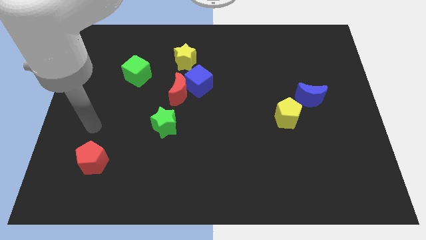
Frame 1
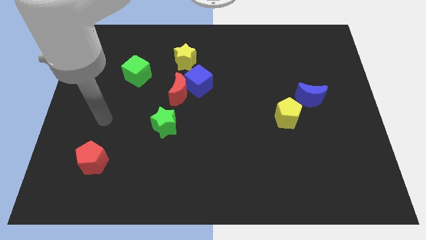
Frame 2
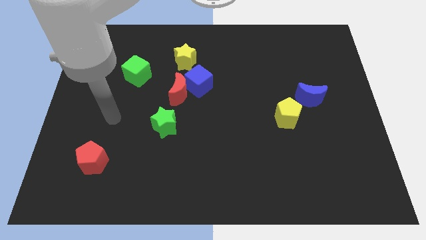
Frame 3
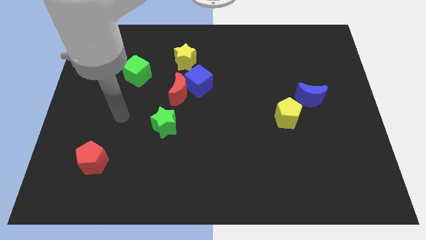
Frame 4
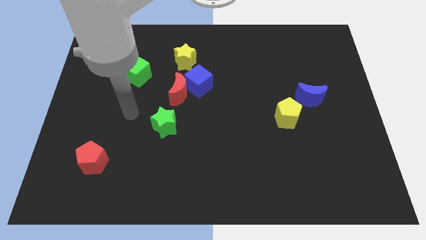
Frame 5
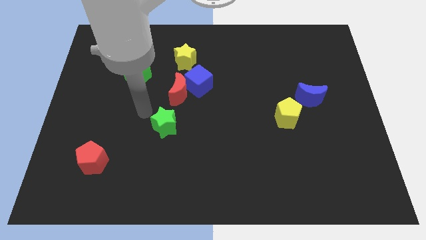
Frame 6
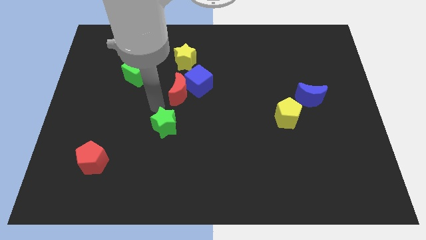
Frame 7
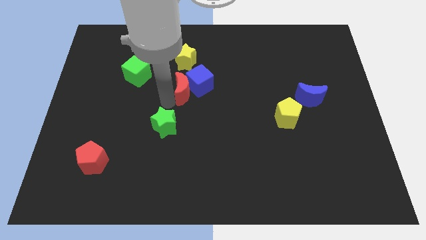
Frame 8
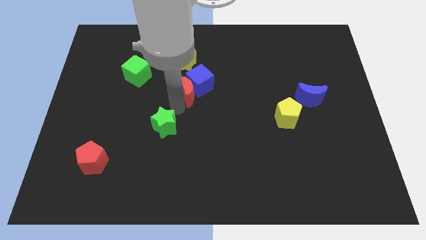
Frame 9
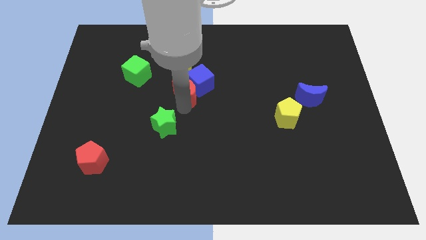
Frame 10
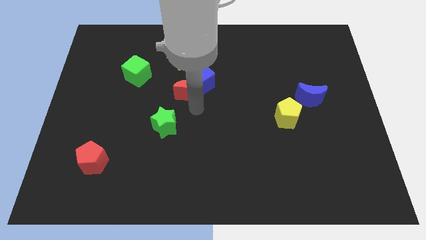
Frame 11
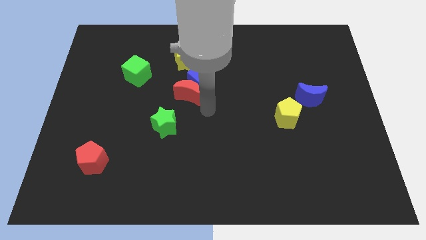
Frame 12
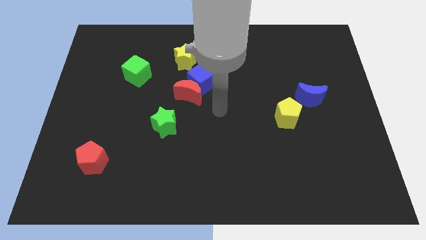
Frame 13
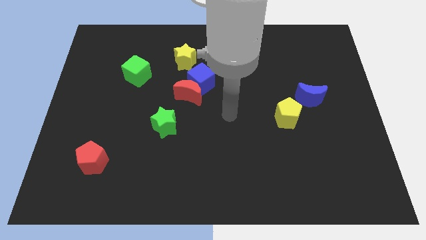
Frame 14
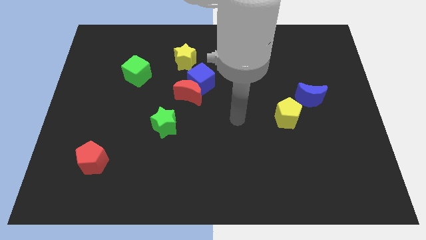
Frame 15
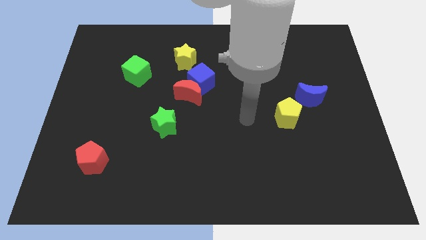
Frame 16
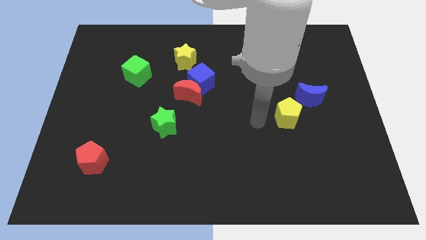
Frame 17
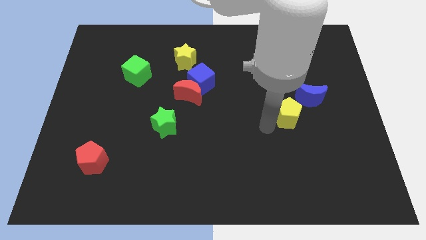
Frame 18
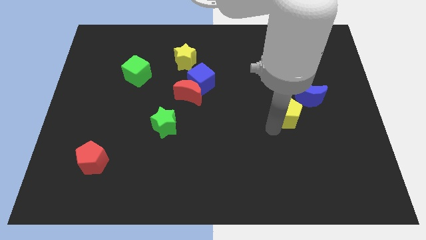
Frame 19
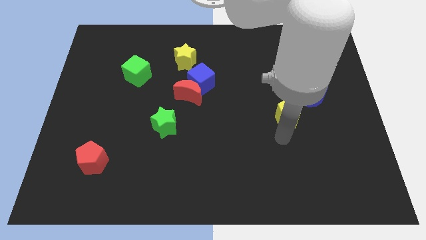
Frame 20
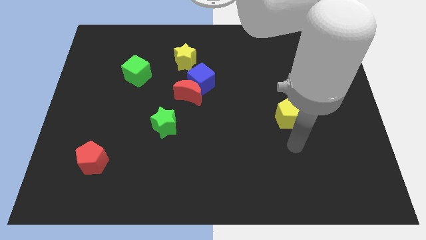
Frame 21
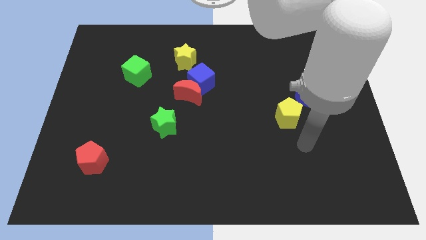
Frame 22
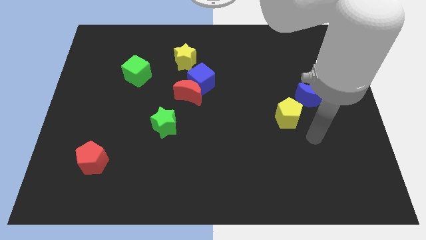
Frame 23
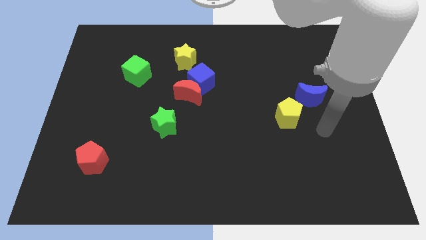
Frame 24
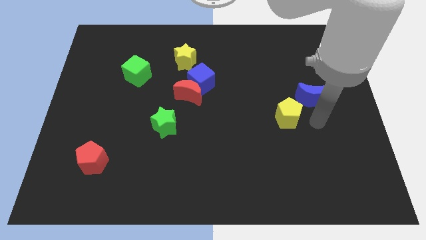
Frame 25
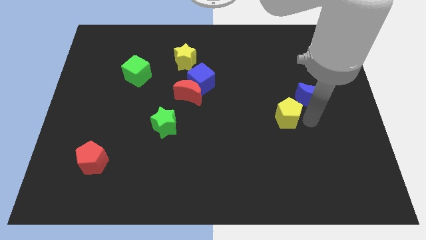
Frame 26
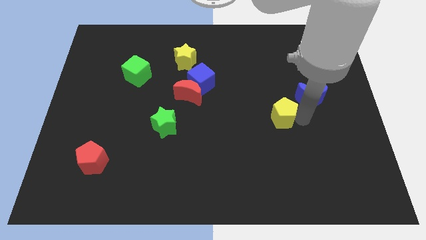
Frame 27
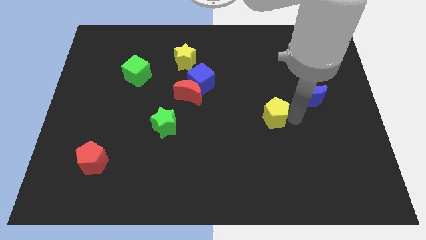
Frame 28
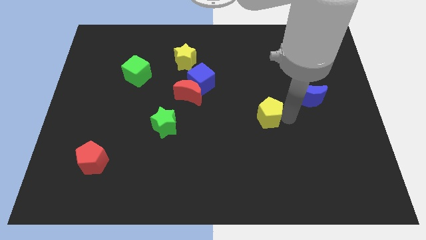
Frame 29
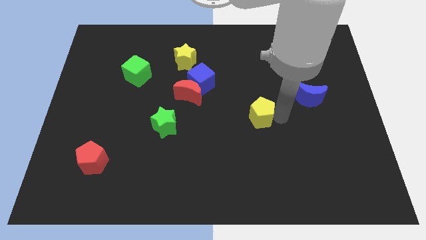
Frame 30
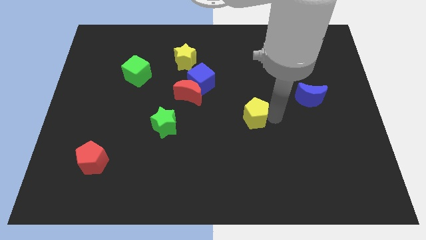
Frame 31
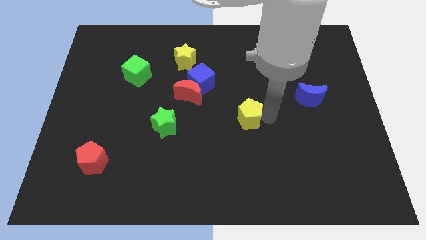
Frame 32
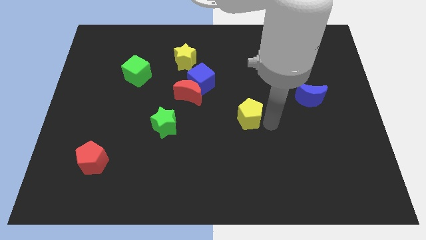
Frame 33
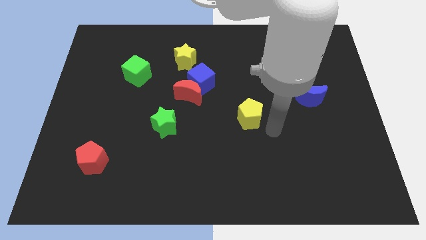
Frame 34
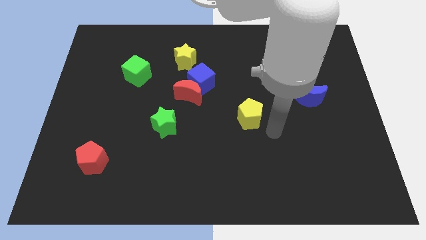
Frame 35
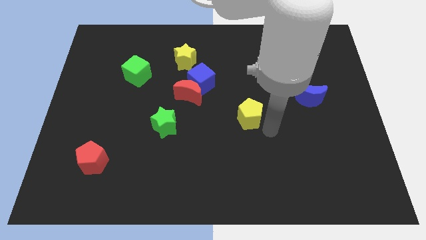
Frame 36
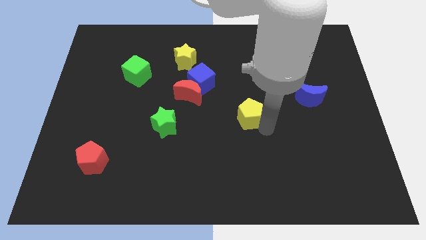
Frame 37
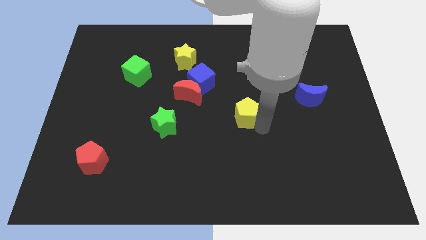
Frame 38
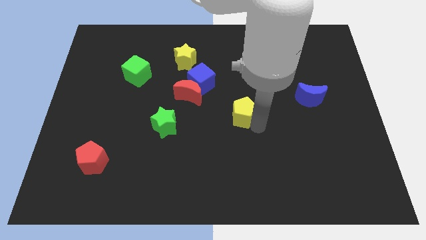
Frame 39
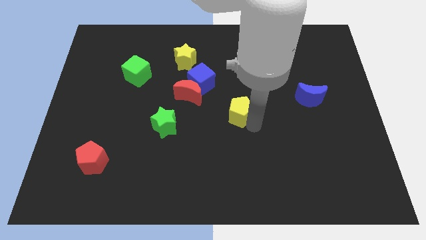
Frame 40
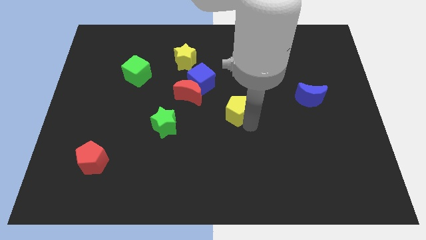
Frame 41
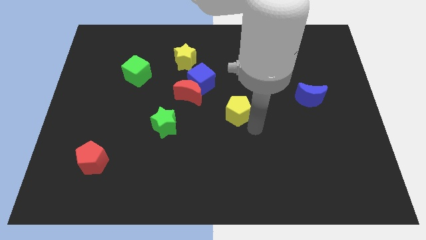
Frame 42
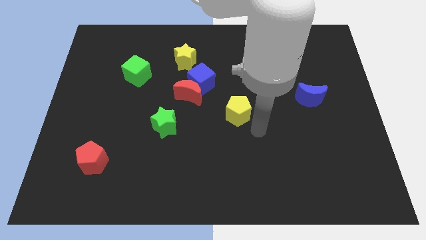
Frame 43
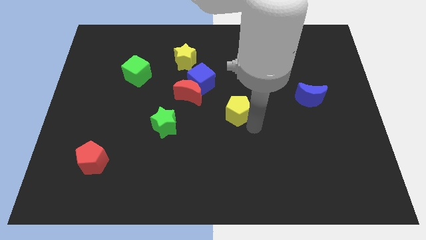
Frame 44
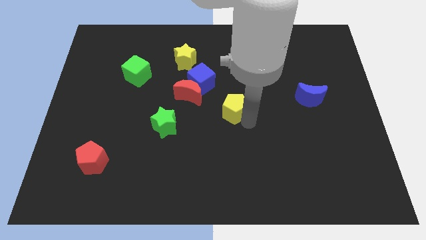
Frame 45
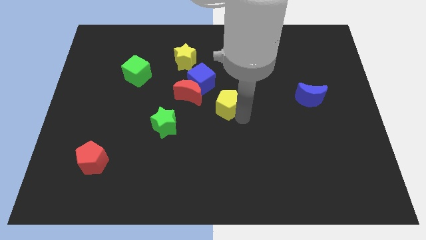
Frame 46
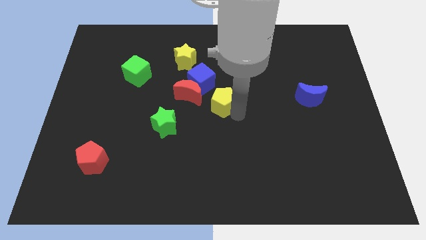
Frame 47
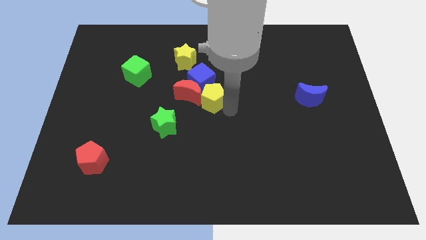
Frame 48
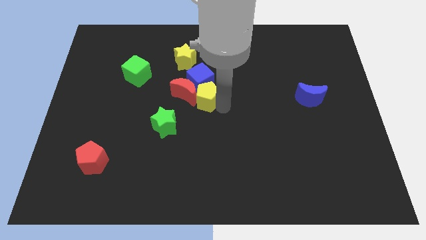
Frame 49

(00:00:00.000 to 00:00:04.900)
move the yellow pentagon next to the blue cube

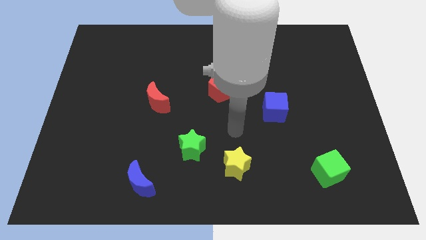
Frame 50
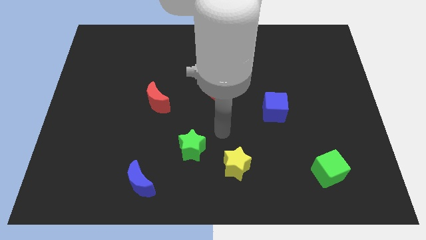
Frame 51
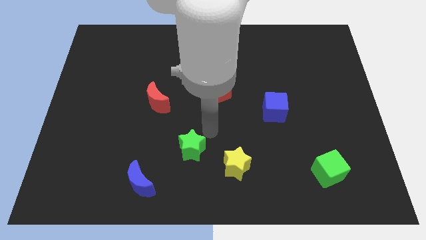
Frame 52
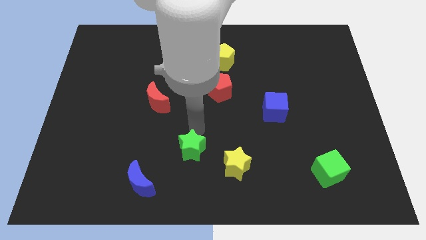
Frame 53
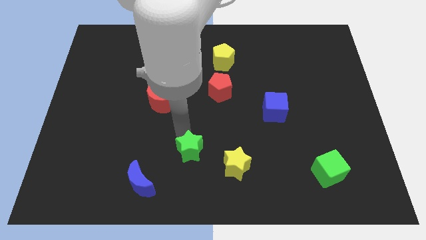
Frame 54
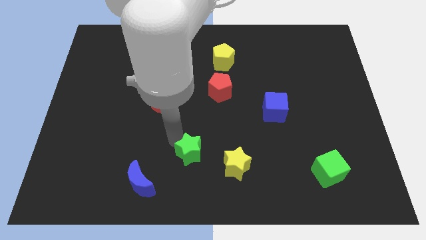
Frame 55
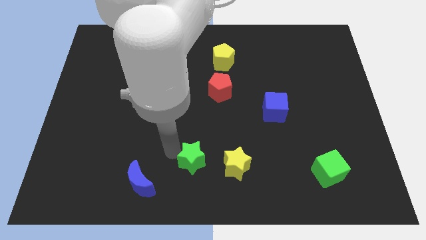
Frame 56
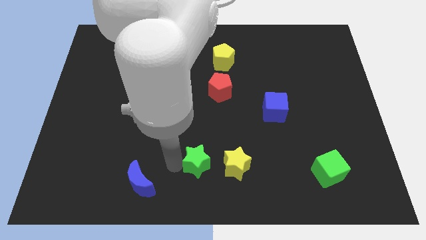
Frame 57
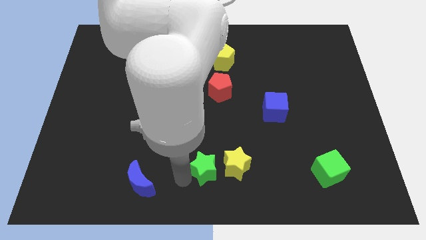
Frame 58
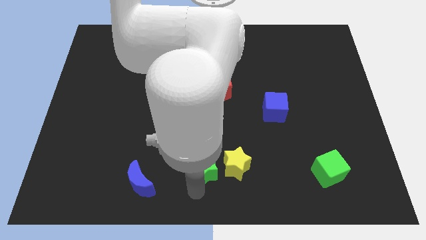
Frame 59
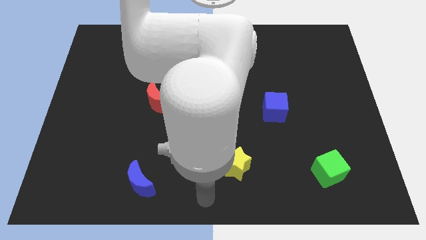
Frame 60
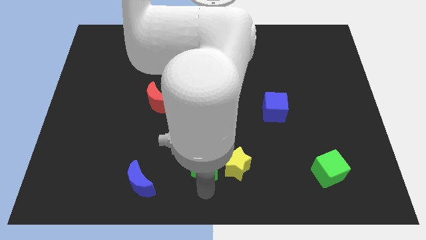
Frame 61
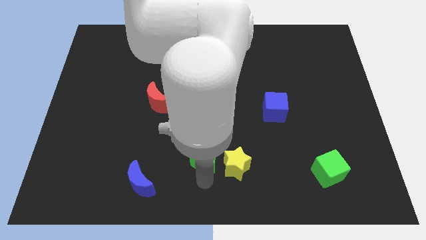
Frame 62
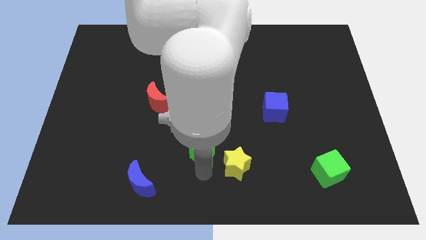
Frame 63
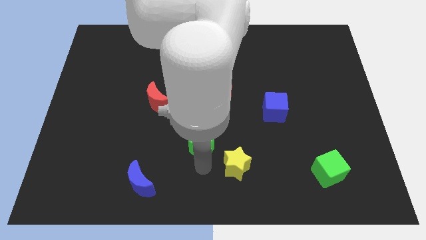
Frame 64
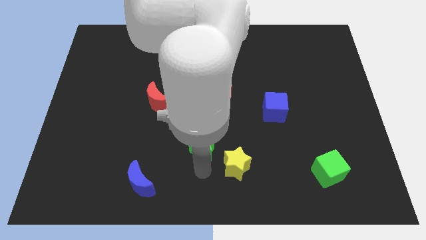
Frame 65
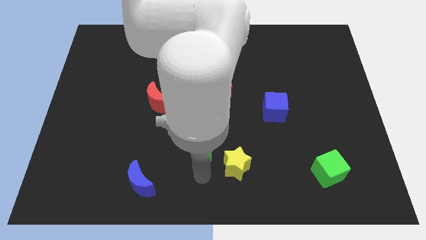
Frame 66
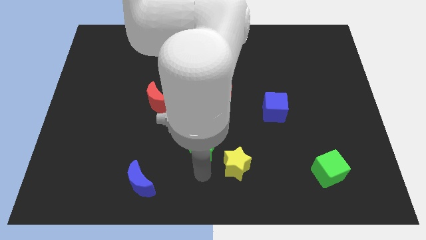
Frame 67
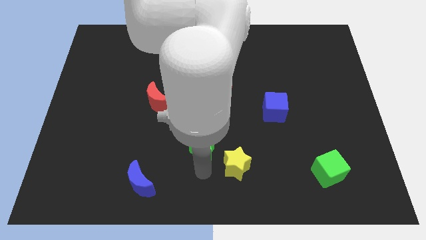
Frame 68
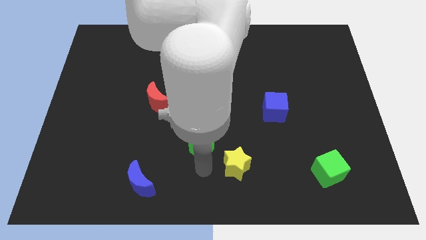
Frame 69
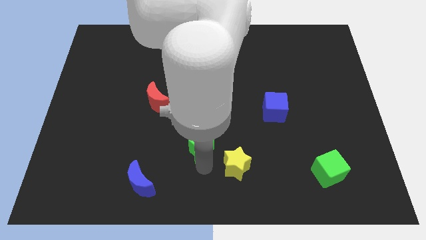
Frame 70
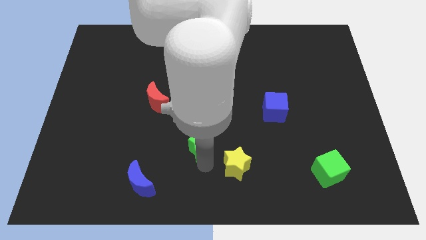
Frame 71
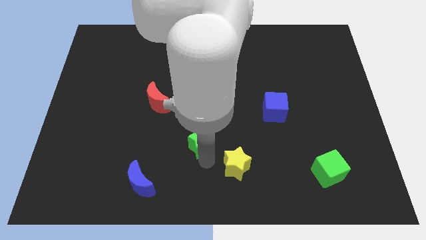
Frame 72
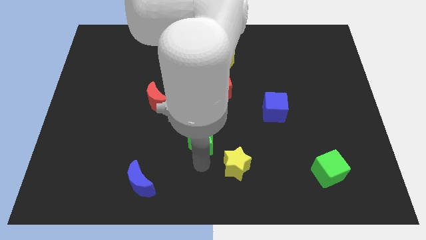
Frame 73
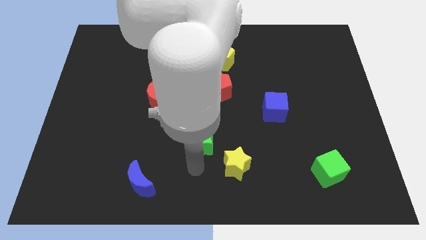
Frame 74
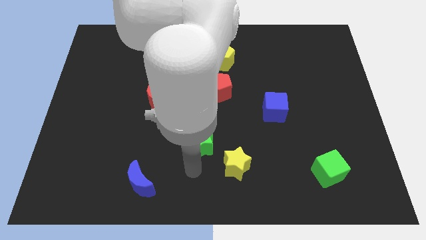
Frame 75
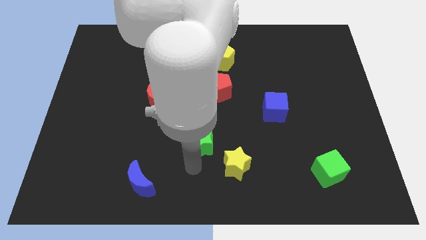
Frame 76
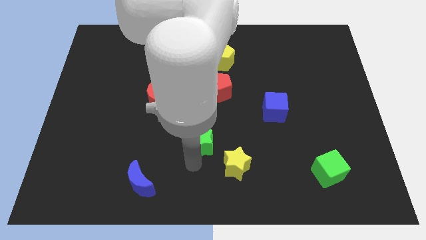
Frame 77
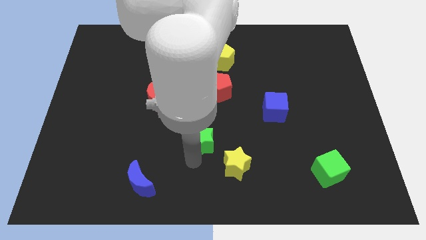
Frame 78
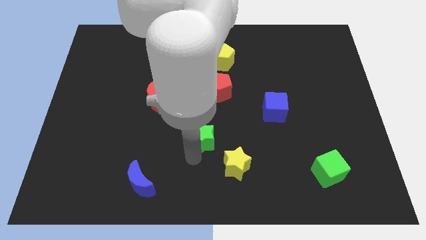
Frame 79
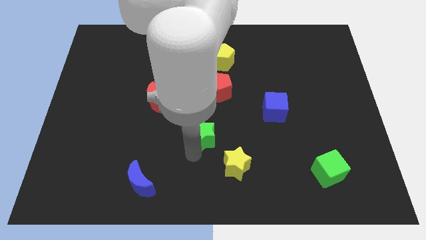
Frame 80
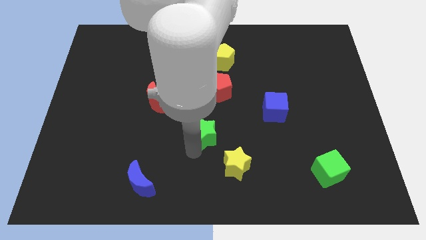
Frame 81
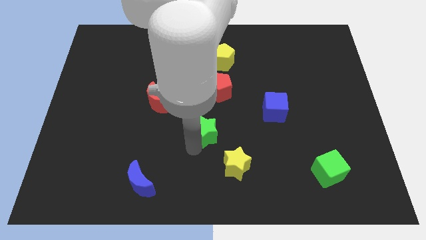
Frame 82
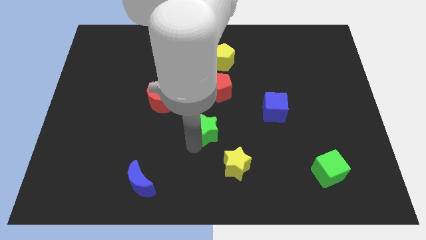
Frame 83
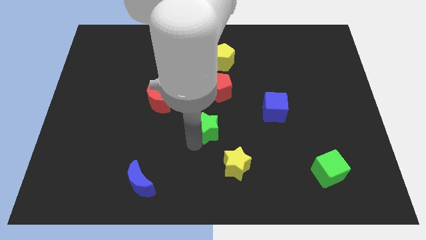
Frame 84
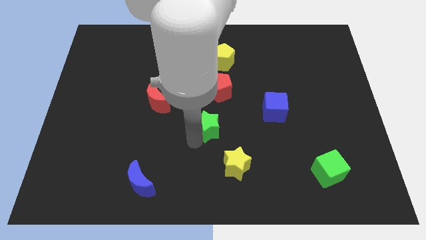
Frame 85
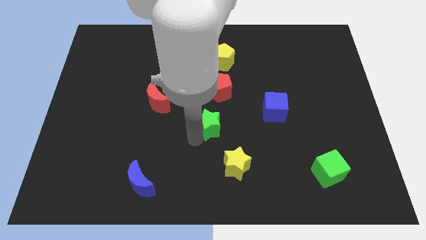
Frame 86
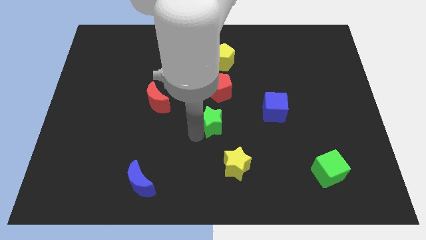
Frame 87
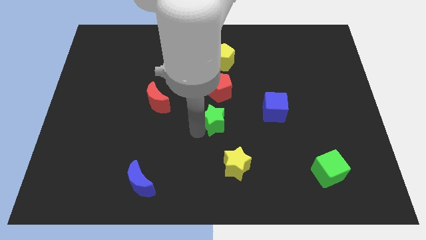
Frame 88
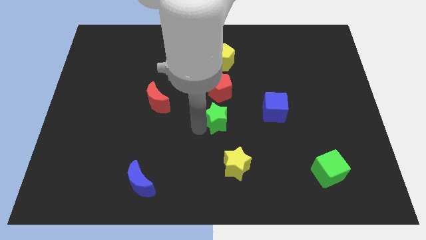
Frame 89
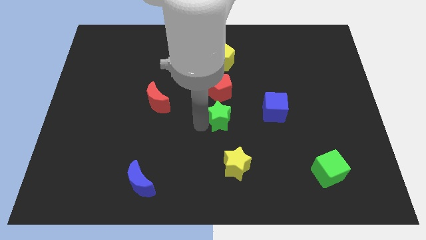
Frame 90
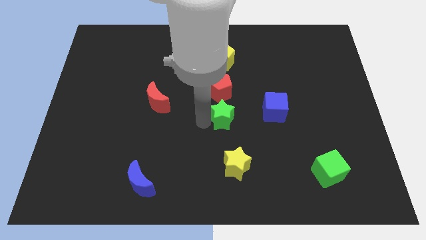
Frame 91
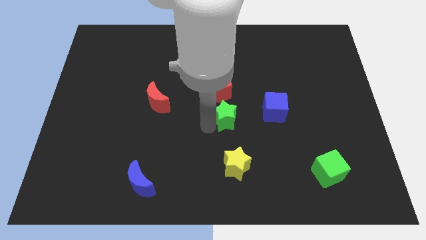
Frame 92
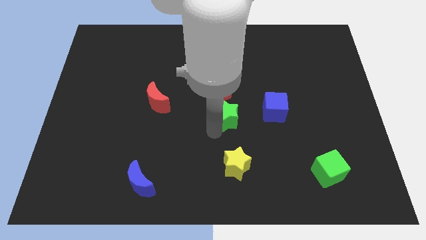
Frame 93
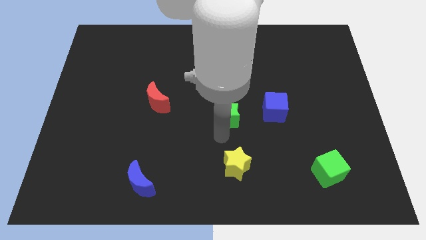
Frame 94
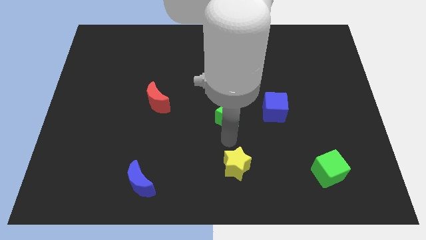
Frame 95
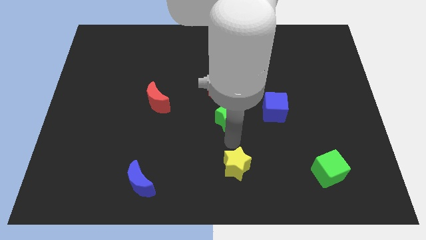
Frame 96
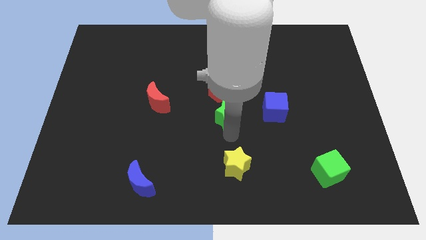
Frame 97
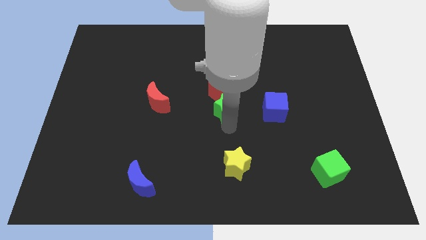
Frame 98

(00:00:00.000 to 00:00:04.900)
push the green star next to the red pentagon
